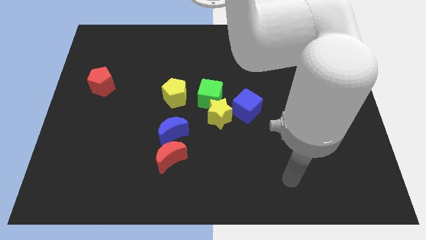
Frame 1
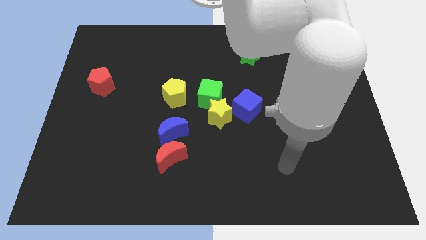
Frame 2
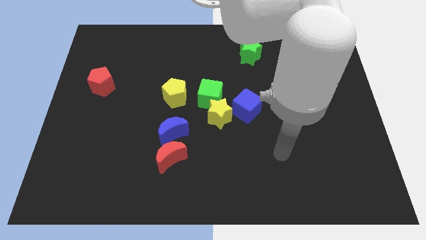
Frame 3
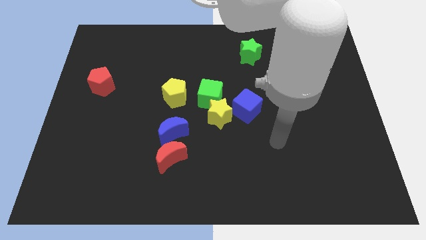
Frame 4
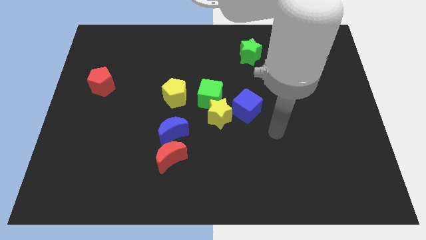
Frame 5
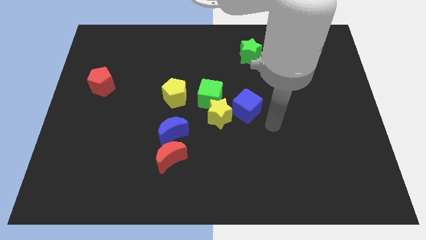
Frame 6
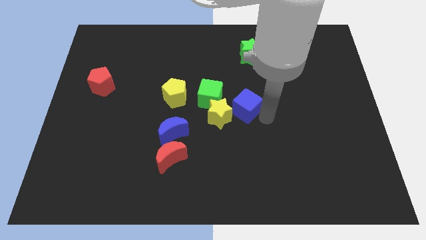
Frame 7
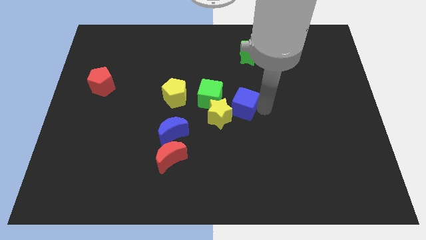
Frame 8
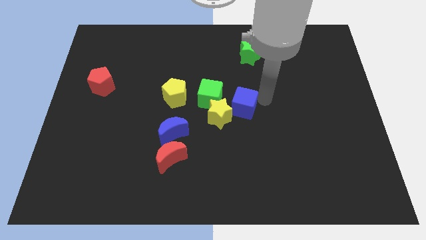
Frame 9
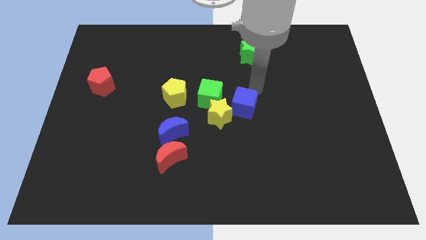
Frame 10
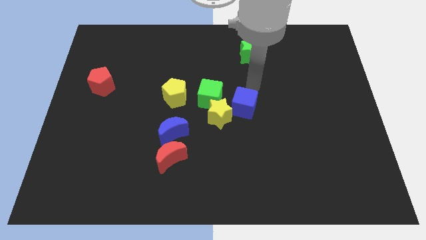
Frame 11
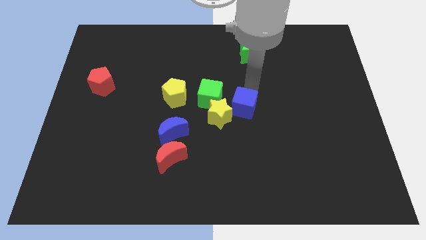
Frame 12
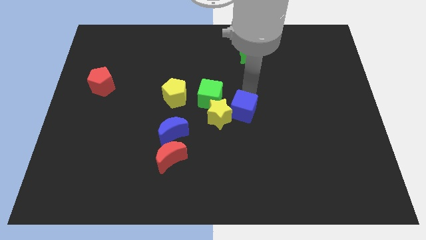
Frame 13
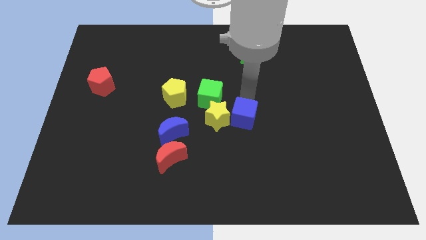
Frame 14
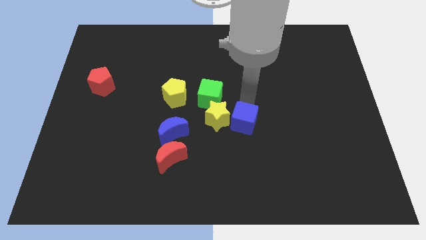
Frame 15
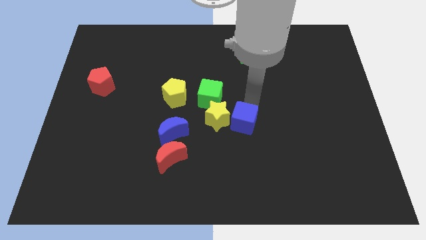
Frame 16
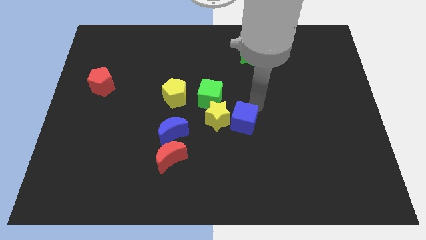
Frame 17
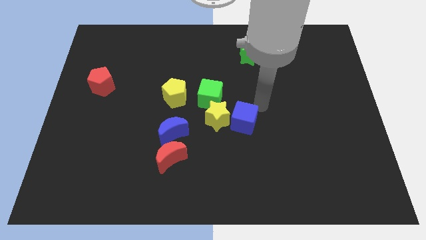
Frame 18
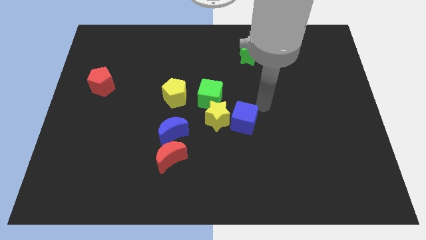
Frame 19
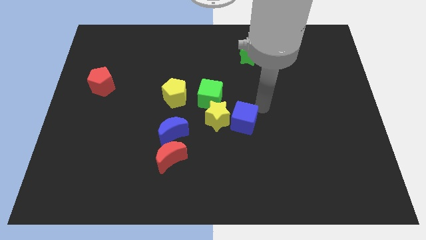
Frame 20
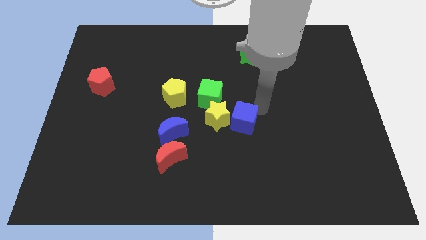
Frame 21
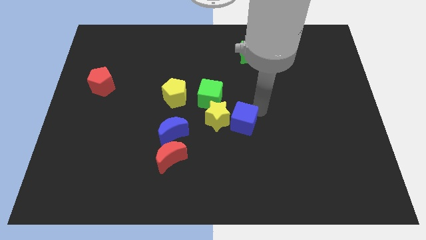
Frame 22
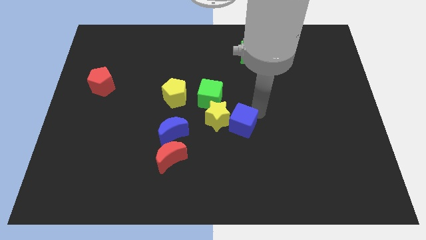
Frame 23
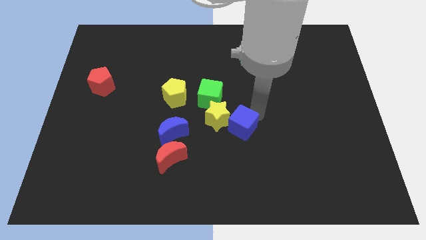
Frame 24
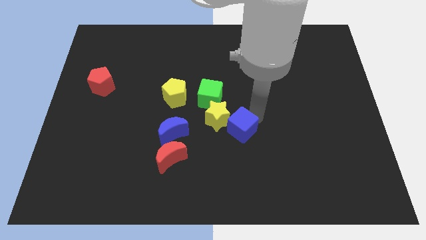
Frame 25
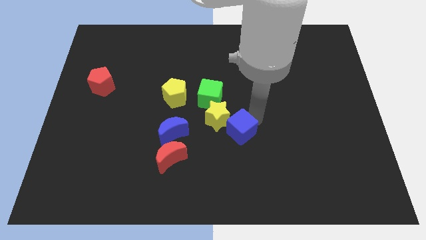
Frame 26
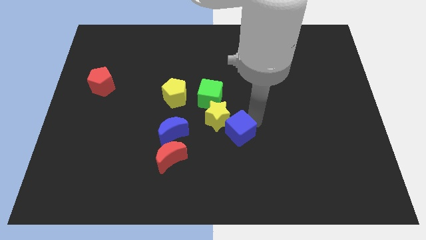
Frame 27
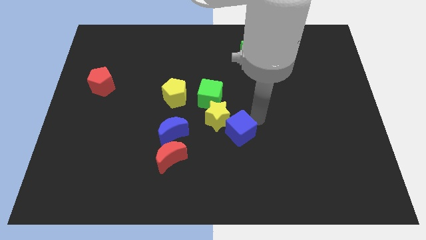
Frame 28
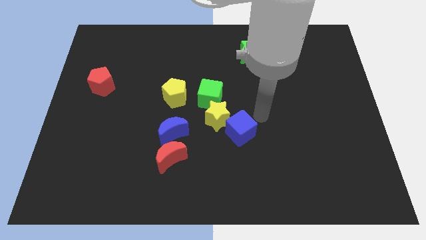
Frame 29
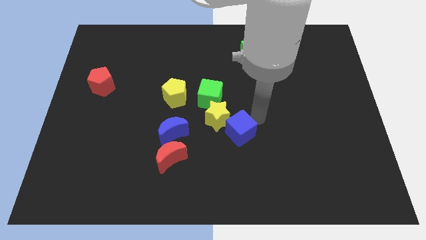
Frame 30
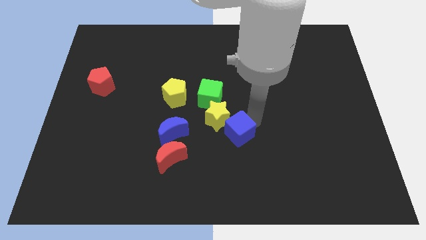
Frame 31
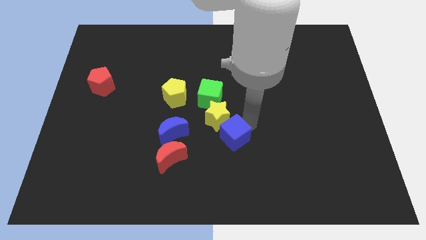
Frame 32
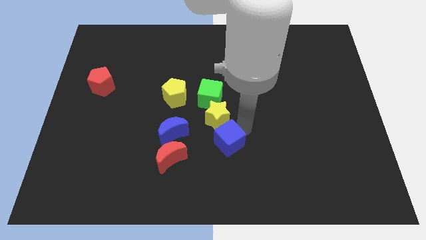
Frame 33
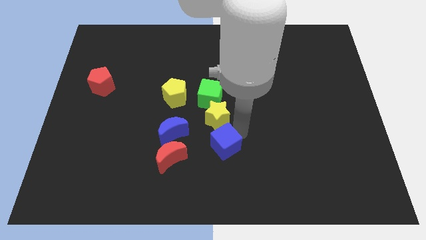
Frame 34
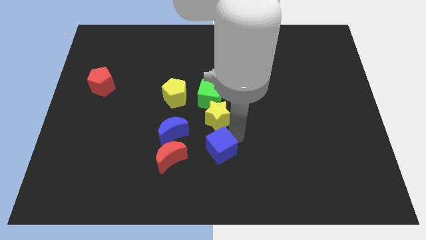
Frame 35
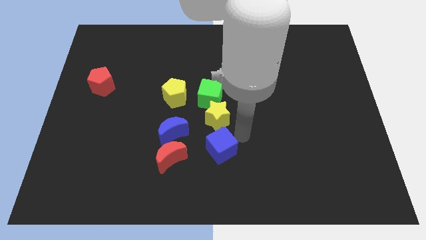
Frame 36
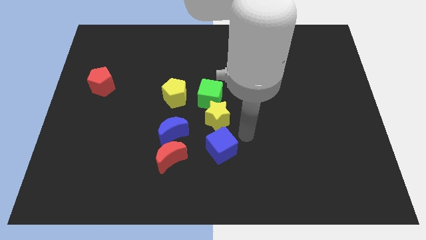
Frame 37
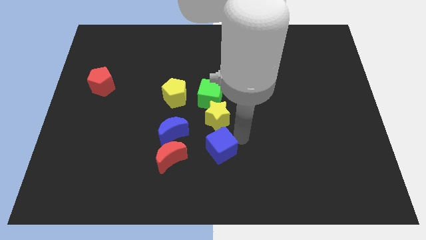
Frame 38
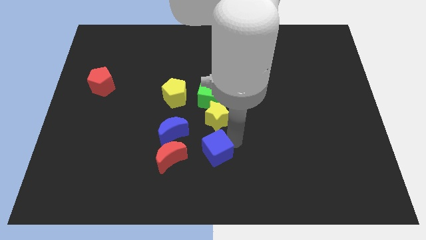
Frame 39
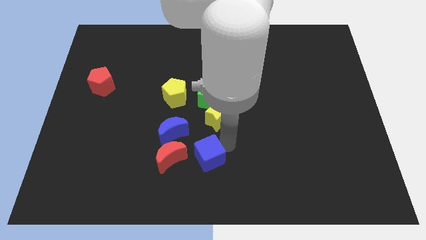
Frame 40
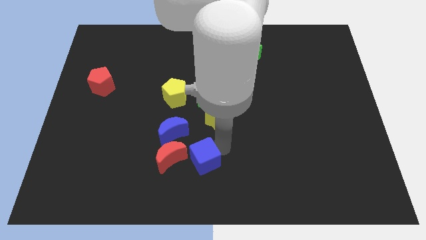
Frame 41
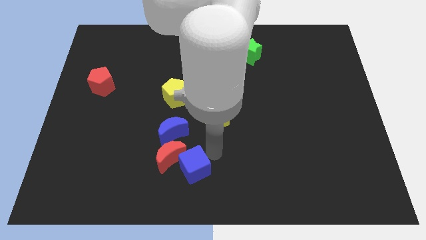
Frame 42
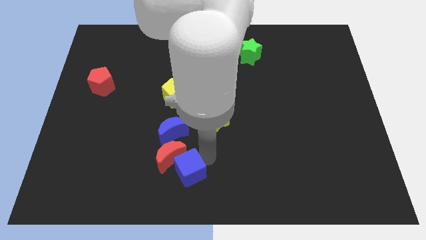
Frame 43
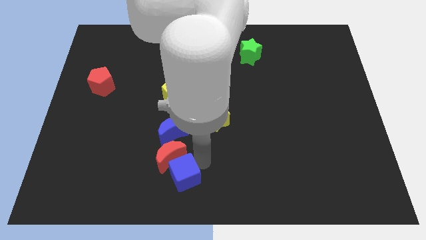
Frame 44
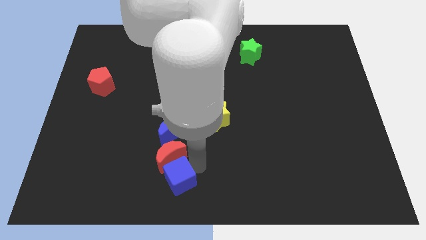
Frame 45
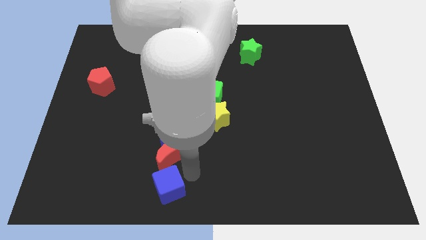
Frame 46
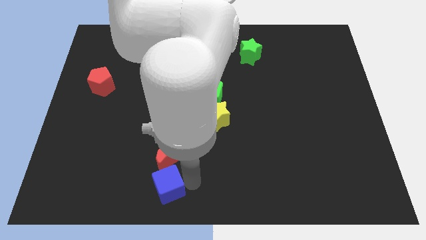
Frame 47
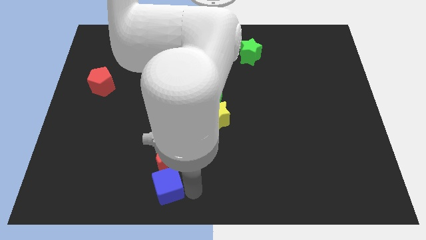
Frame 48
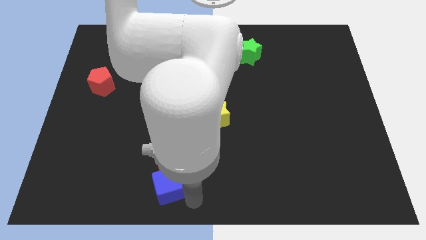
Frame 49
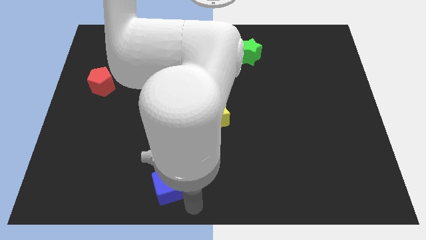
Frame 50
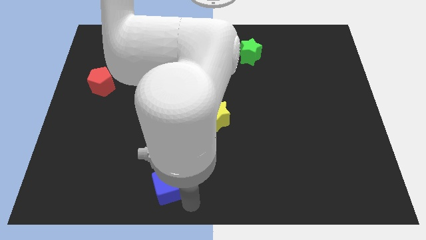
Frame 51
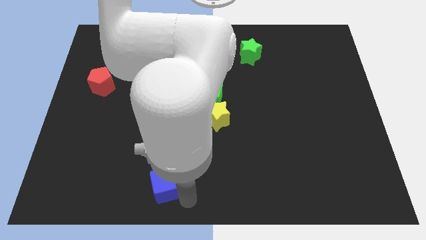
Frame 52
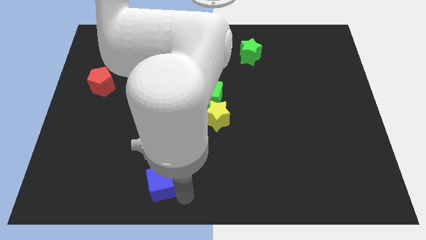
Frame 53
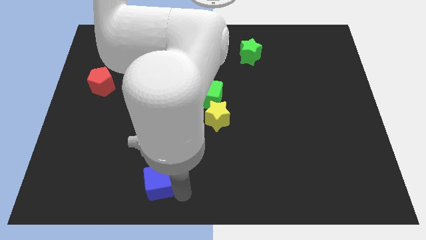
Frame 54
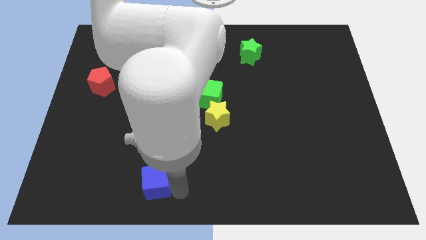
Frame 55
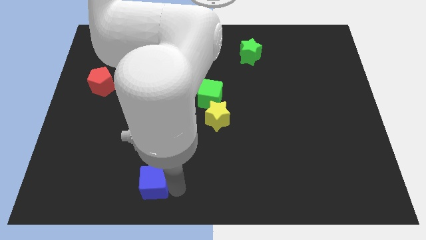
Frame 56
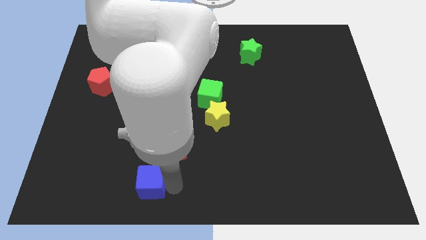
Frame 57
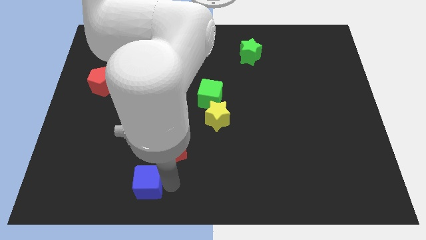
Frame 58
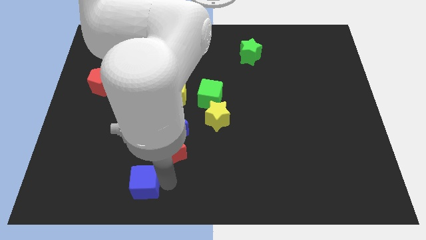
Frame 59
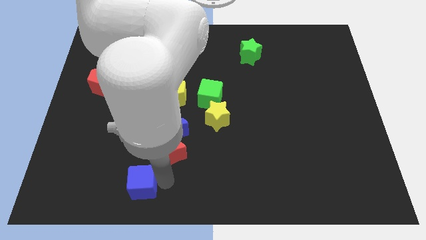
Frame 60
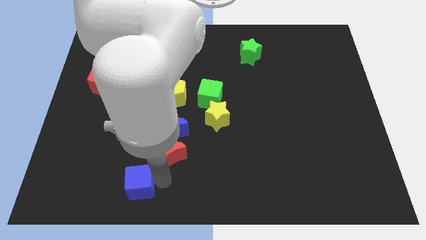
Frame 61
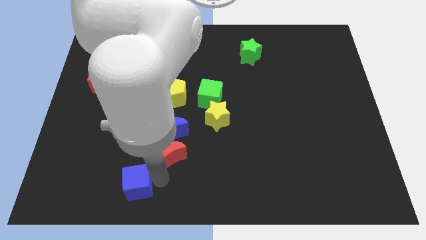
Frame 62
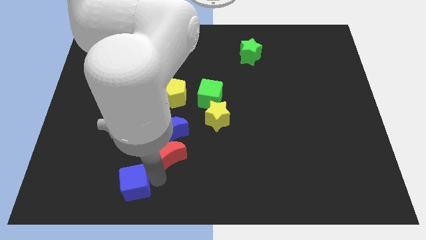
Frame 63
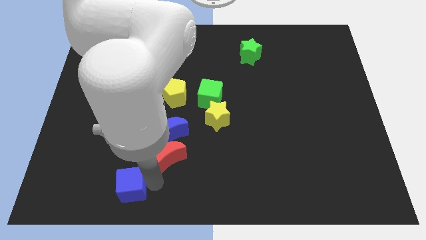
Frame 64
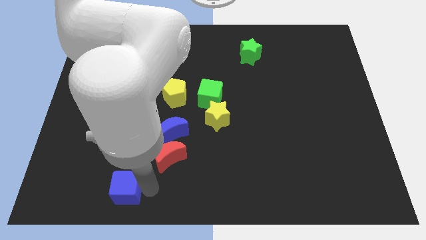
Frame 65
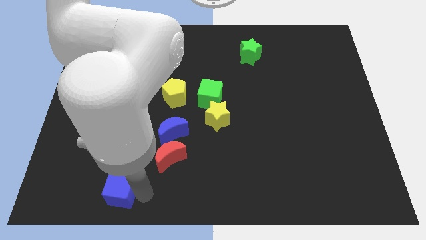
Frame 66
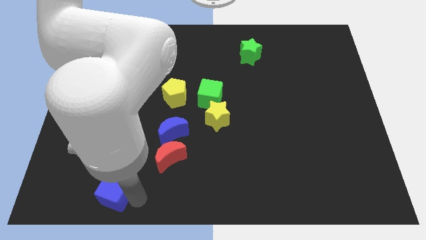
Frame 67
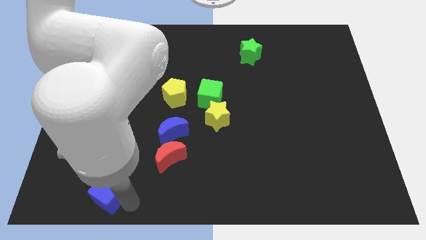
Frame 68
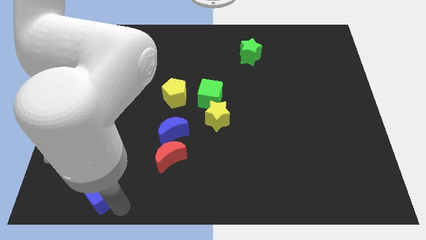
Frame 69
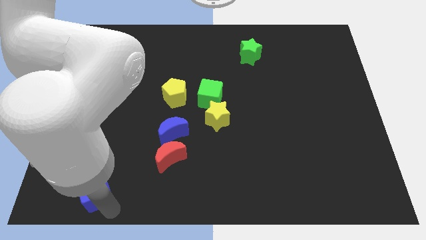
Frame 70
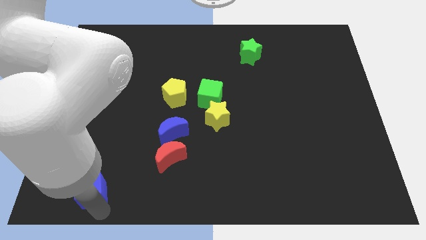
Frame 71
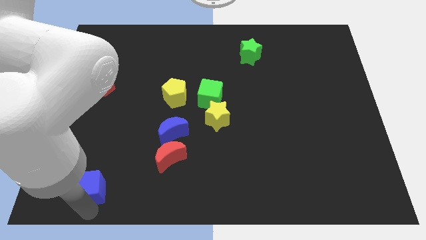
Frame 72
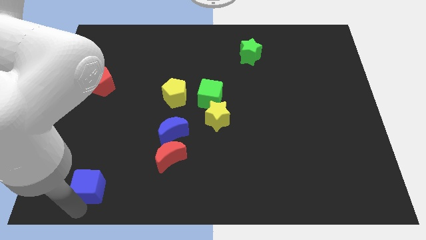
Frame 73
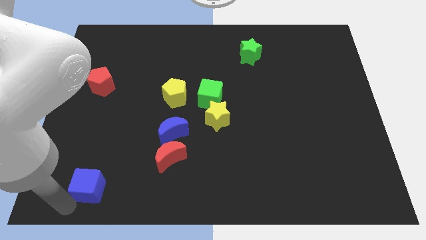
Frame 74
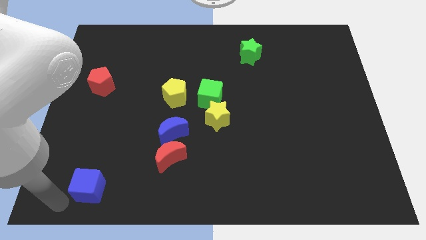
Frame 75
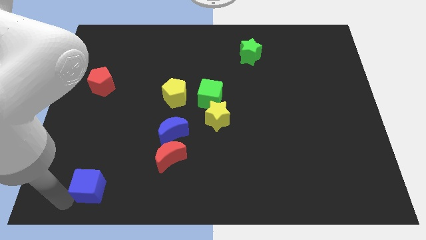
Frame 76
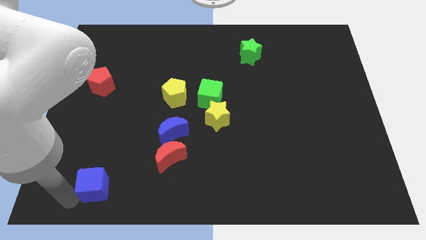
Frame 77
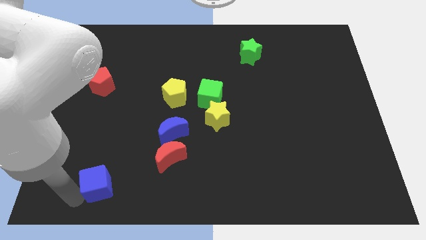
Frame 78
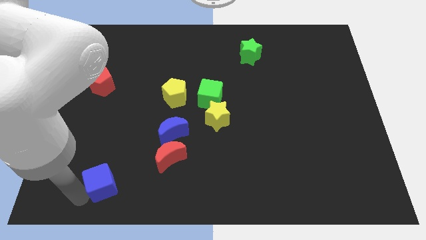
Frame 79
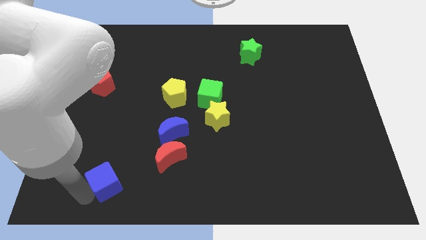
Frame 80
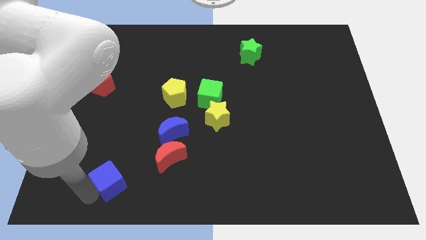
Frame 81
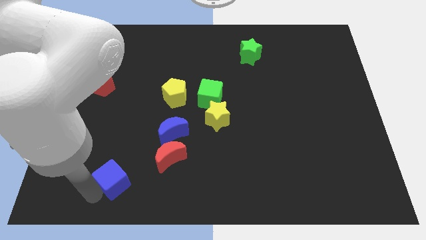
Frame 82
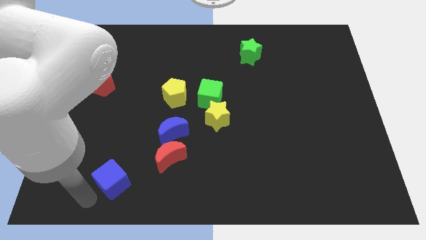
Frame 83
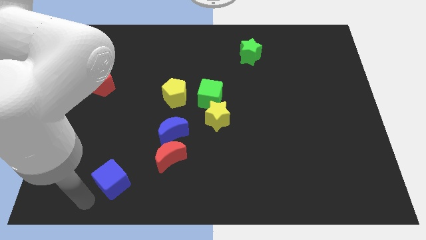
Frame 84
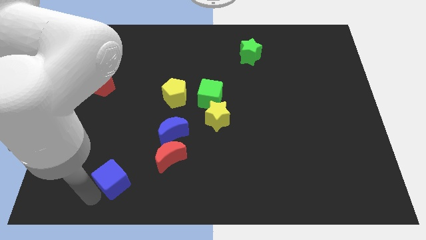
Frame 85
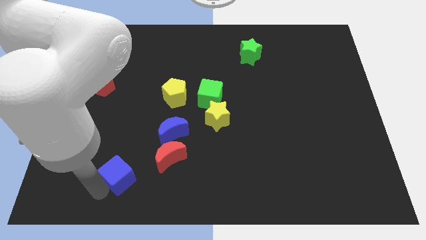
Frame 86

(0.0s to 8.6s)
move the blue cube to the left side of the red moon
